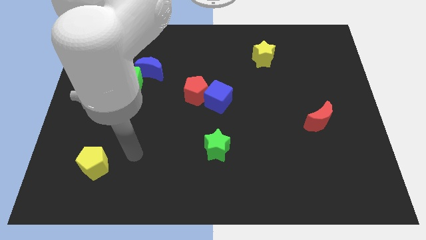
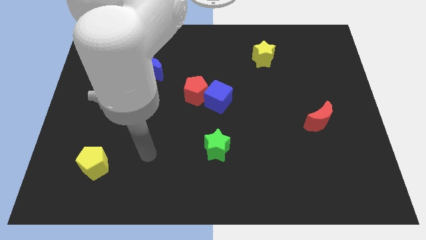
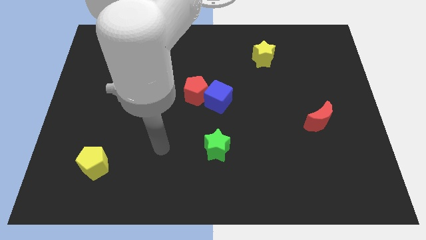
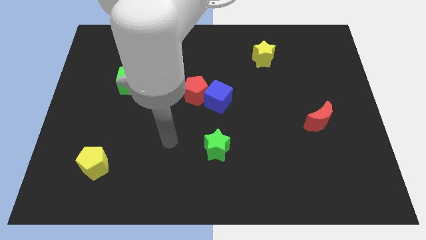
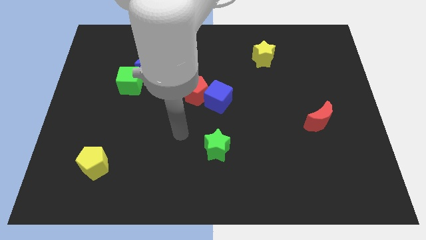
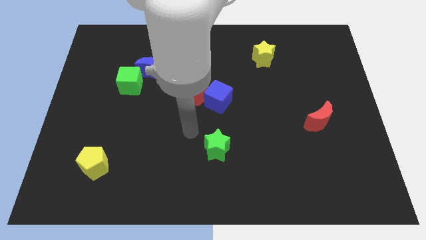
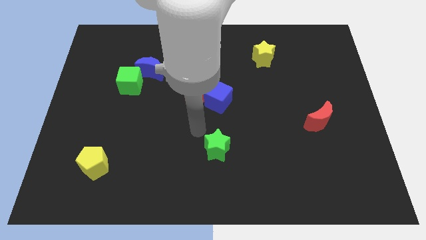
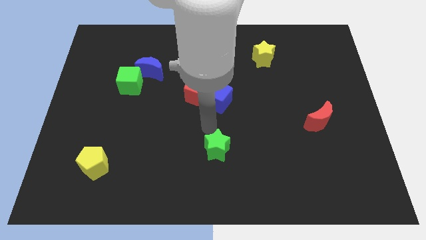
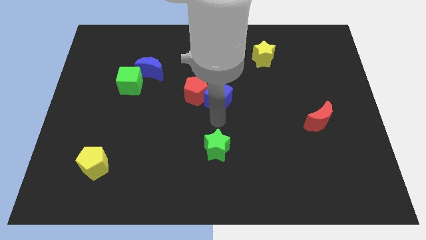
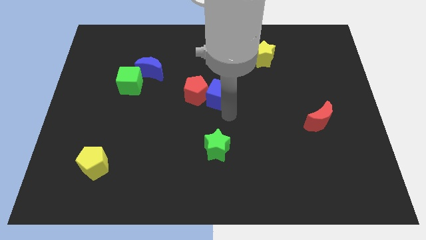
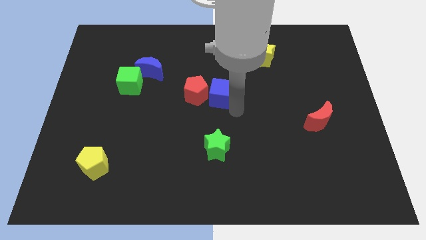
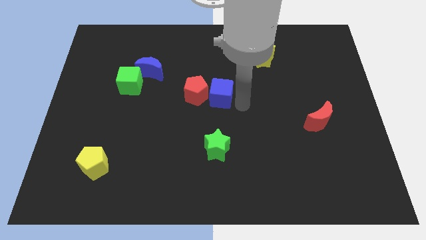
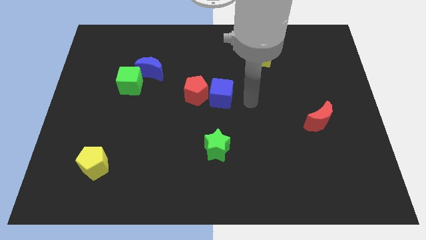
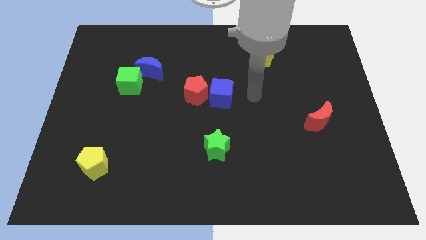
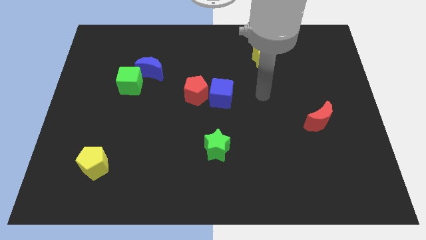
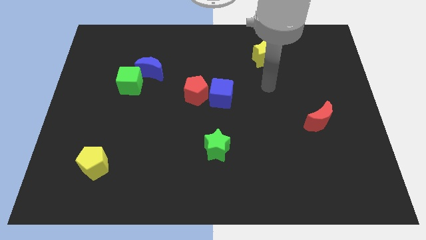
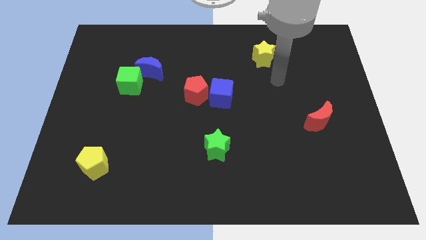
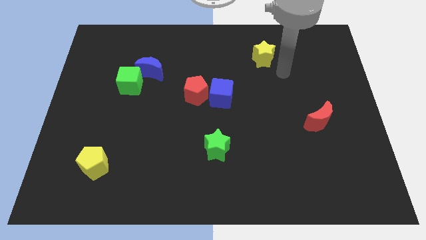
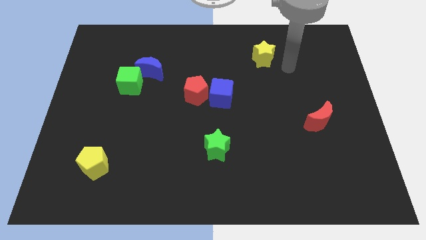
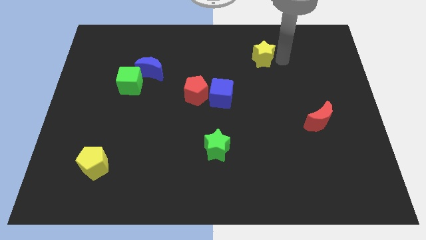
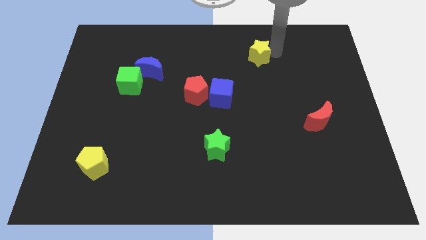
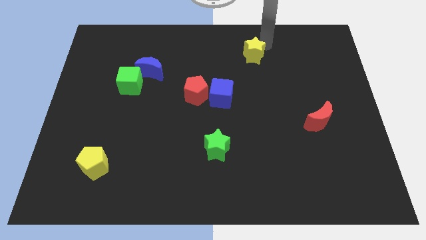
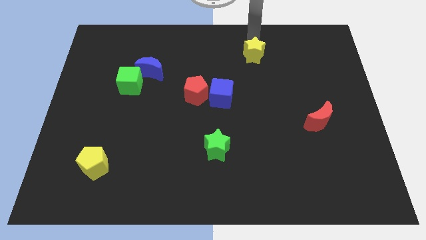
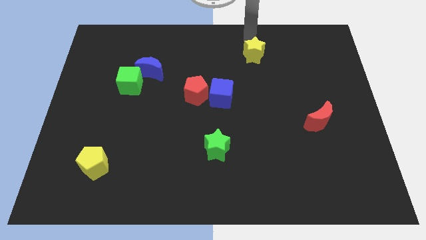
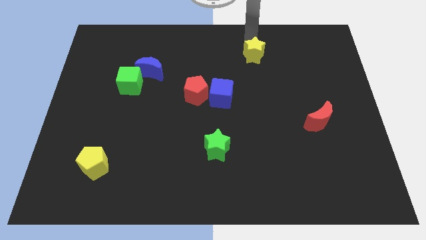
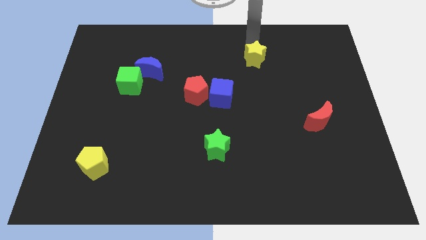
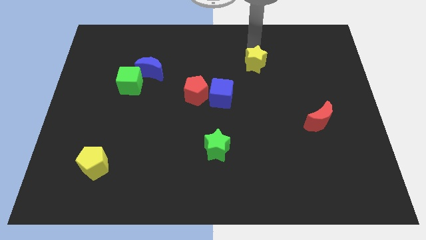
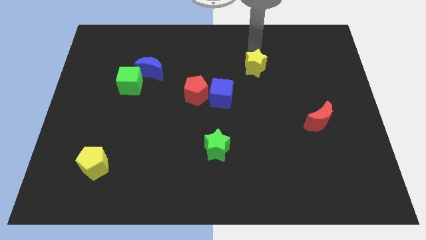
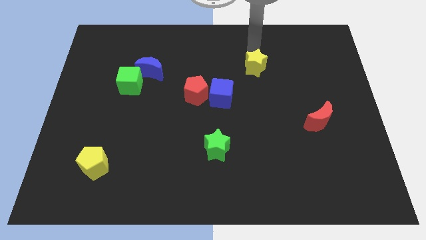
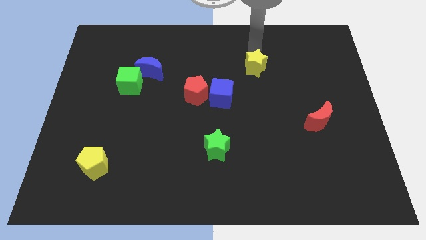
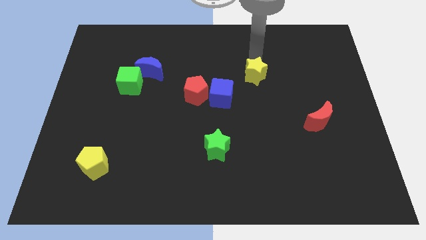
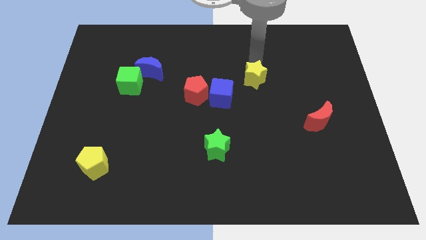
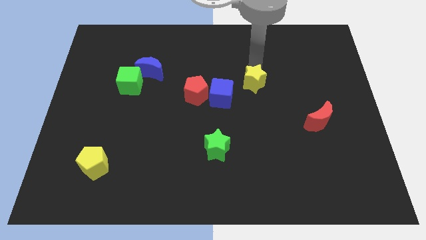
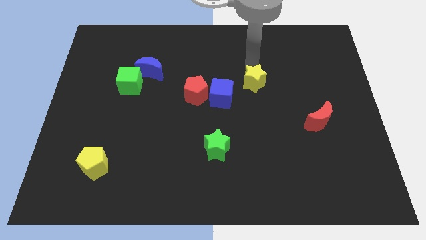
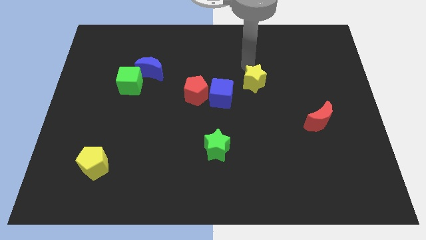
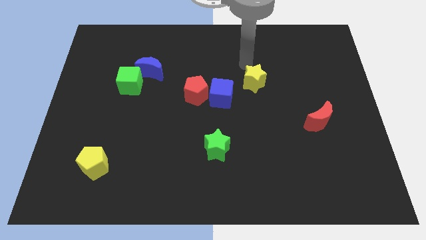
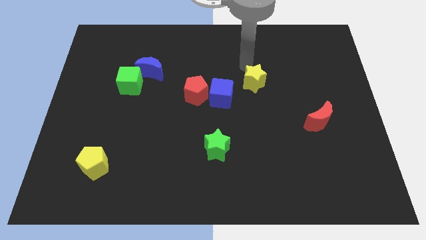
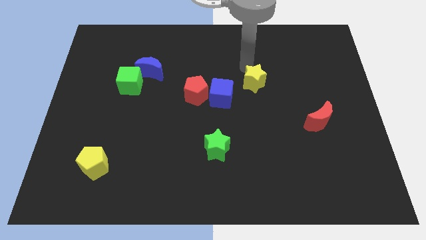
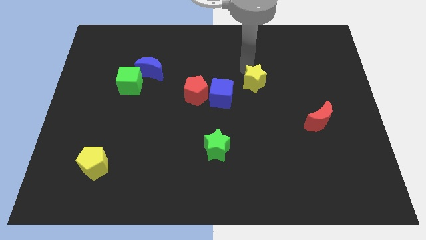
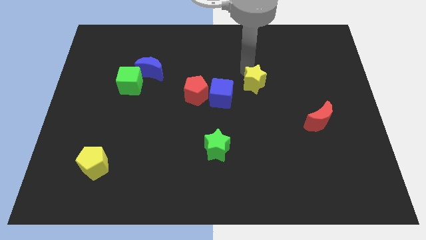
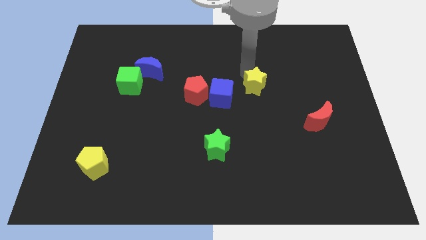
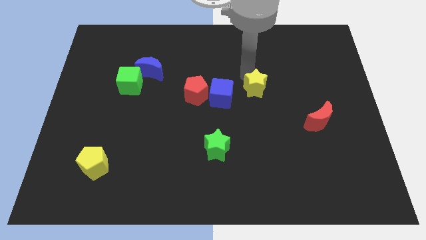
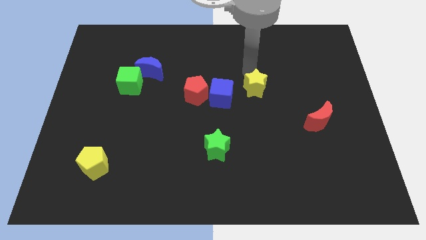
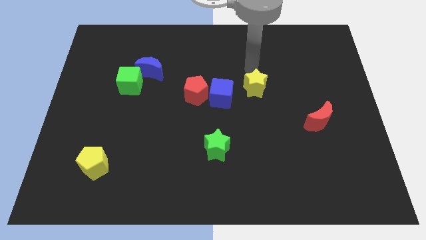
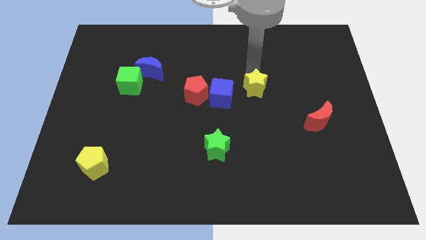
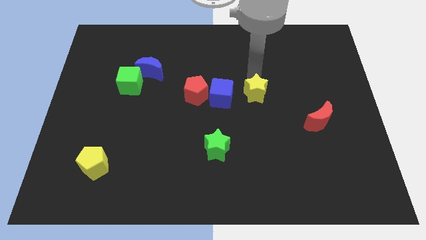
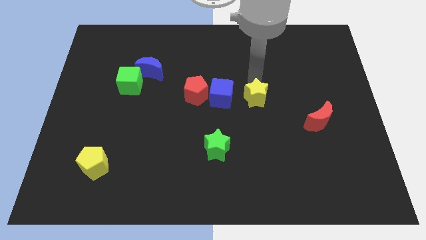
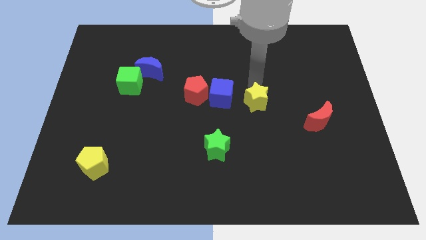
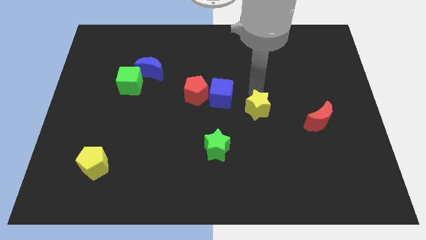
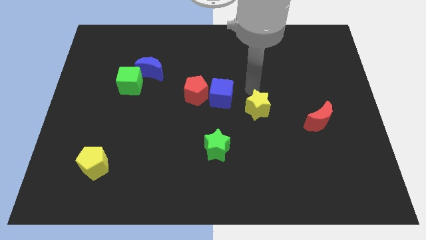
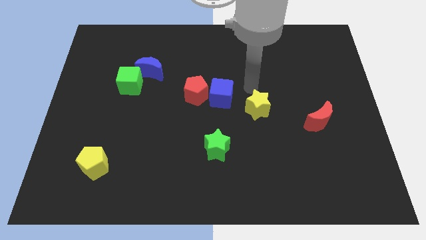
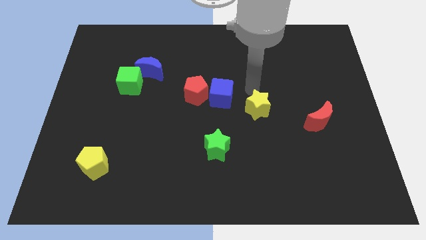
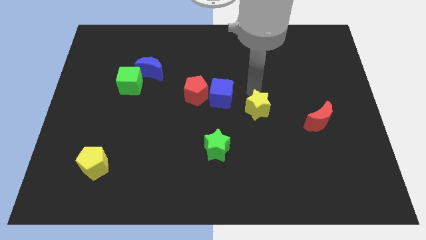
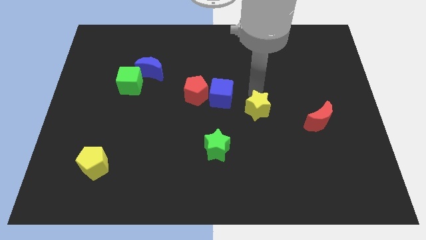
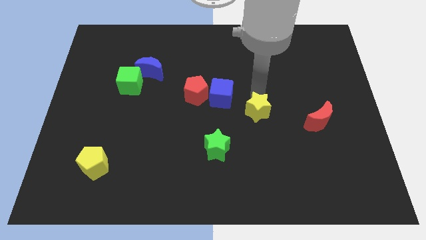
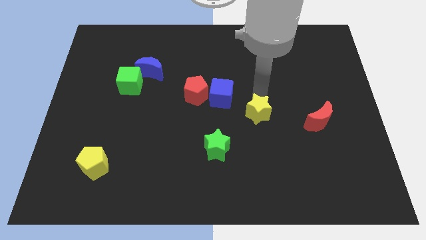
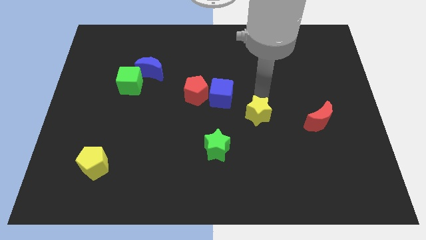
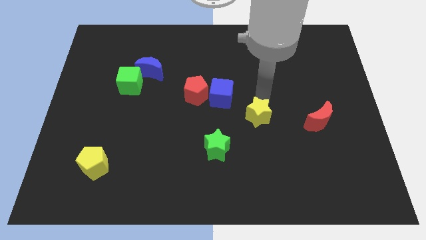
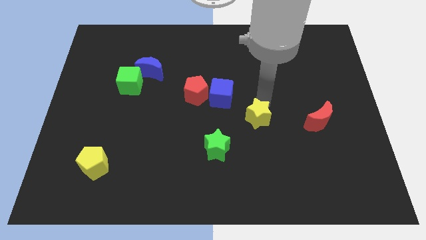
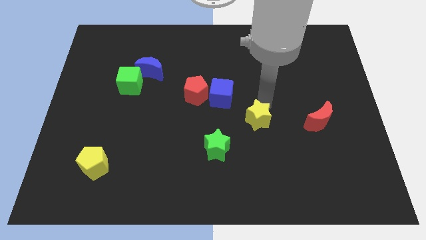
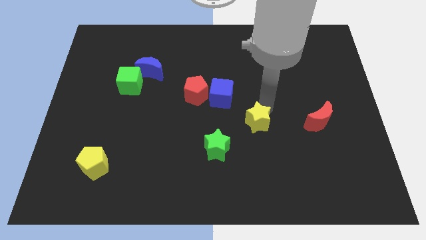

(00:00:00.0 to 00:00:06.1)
push the yellow star down

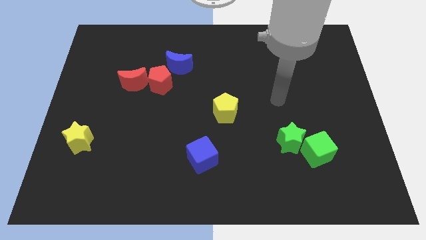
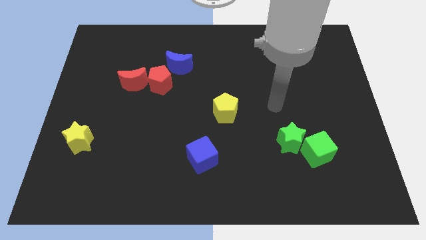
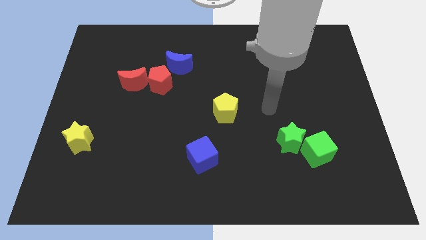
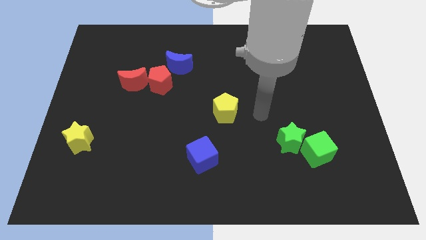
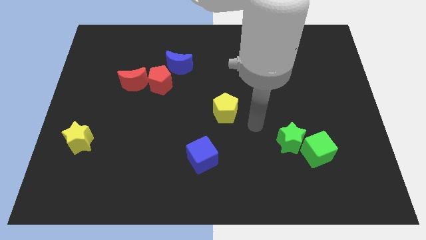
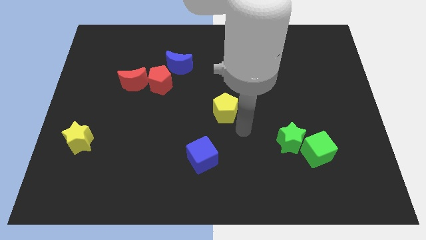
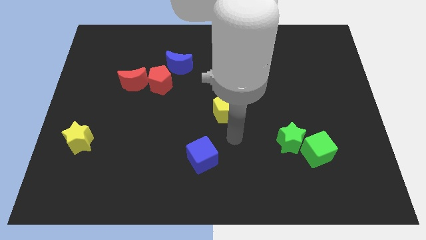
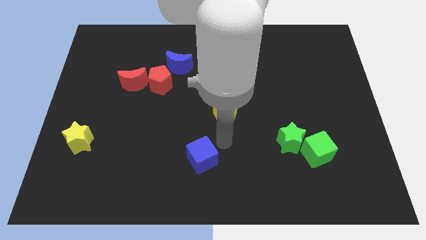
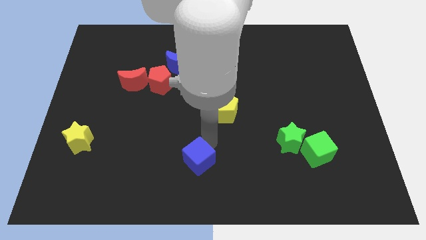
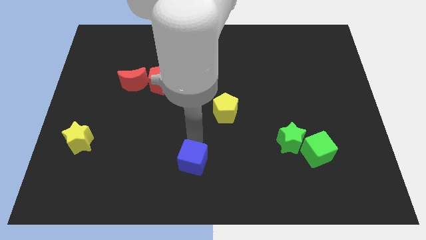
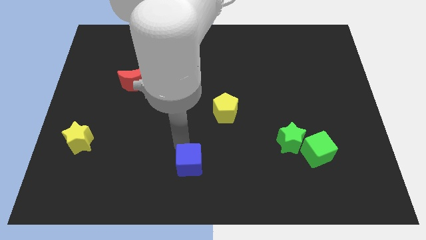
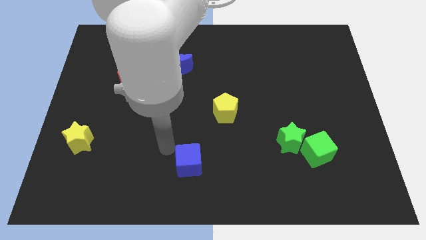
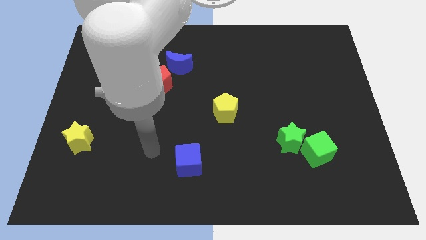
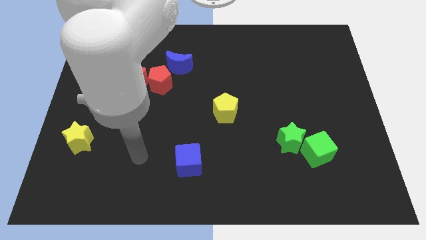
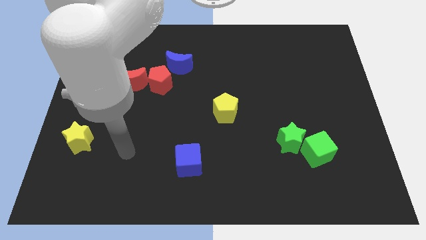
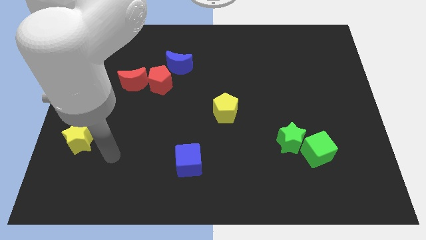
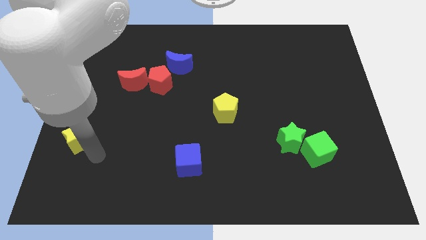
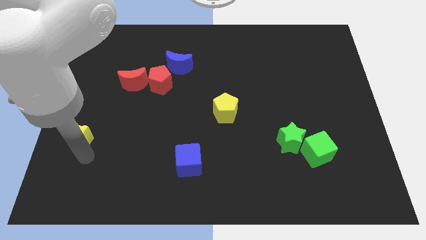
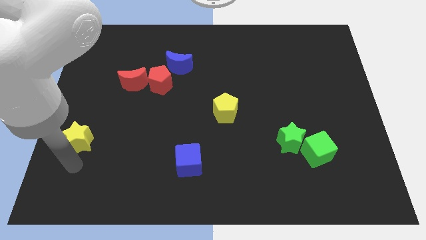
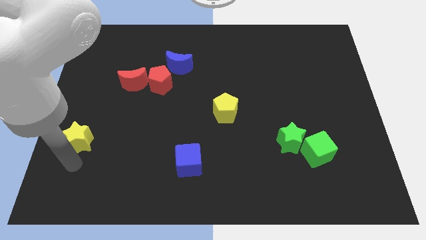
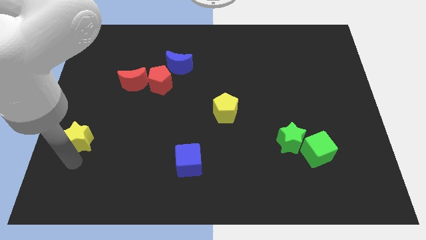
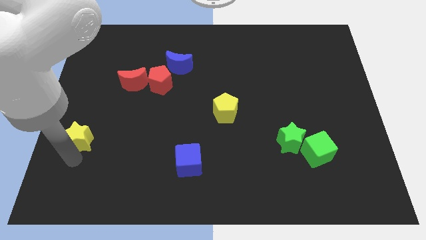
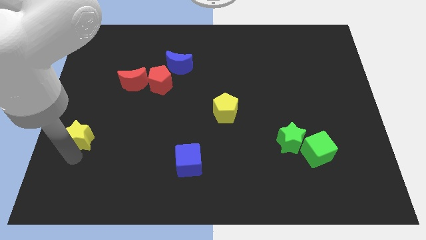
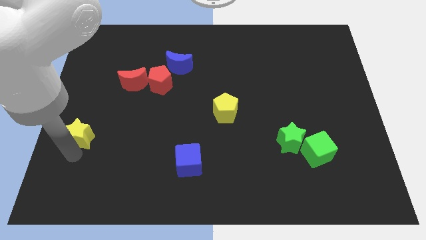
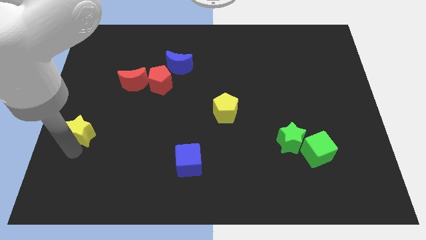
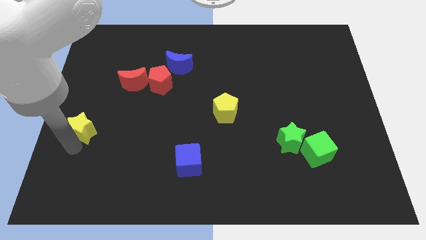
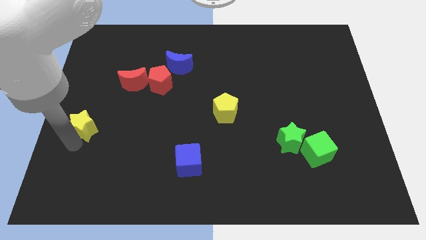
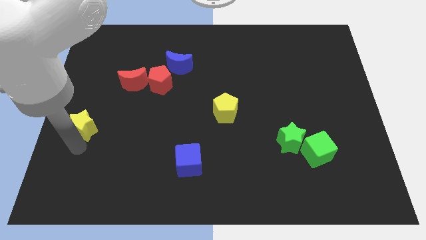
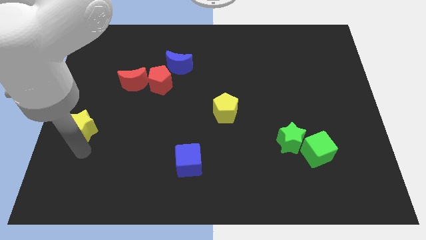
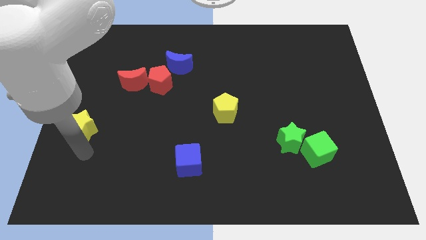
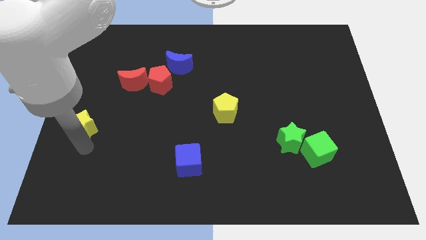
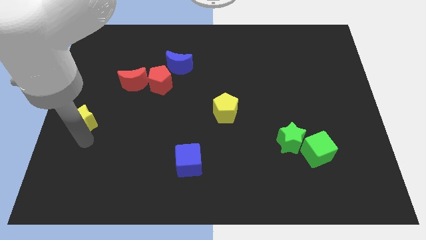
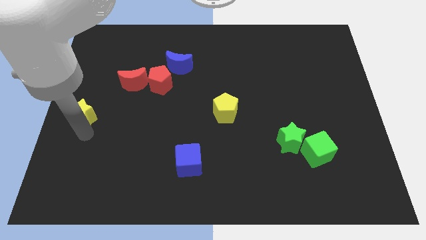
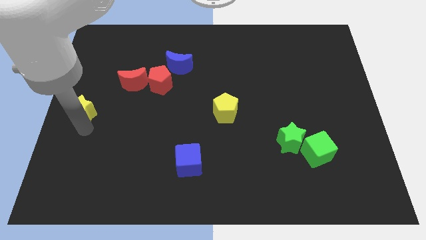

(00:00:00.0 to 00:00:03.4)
slightly slide the yellow star up
